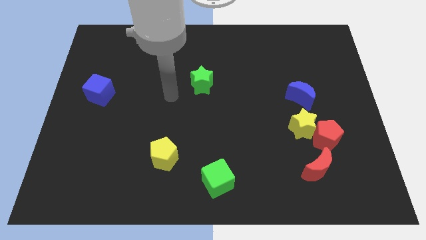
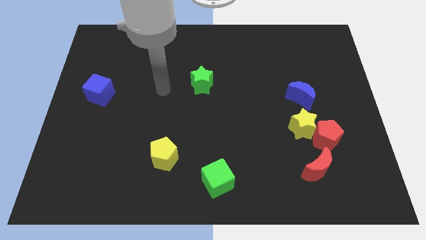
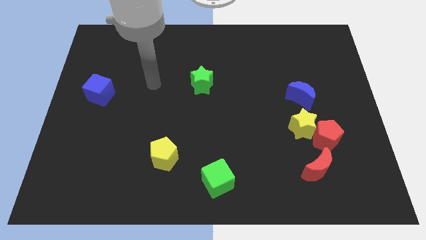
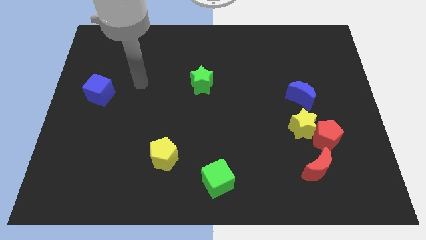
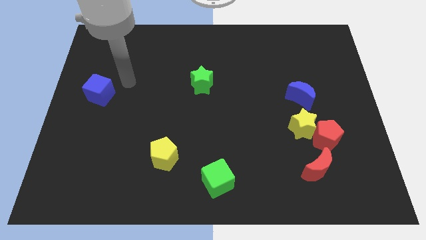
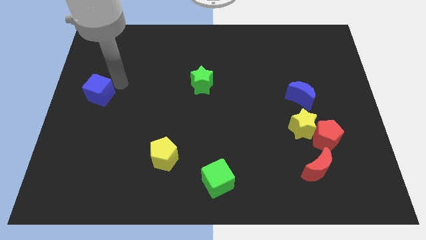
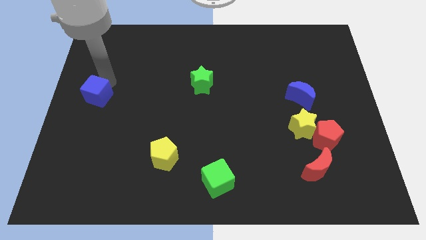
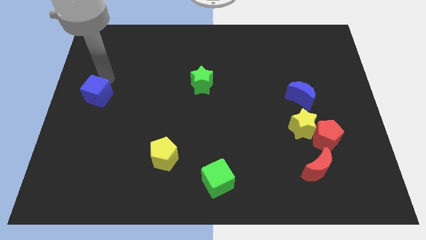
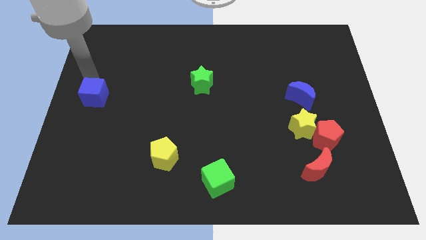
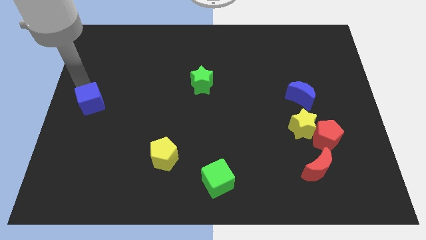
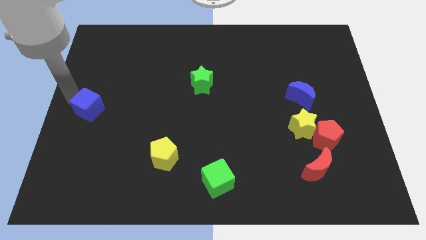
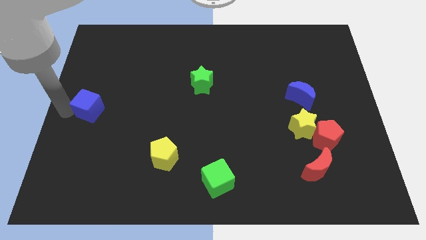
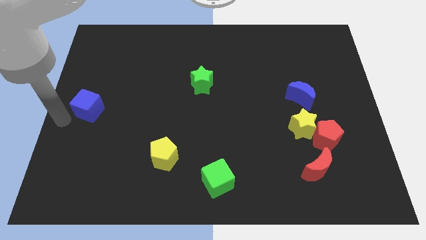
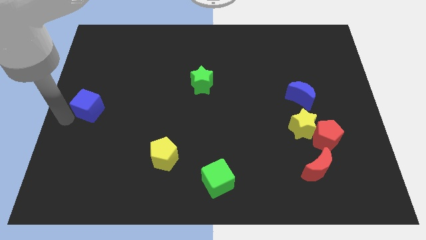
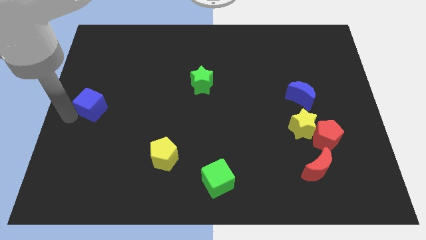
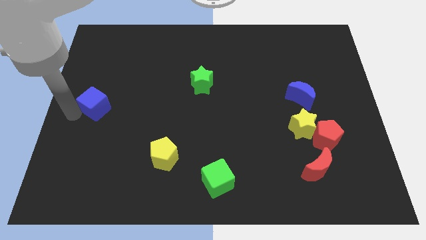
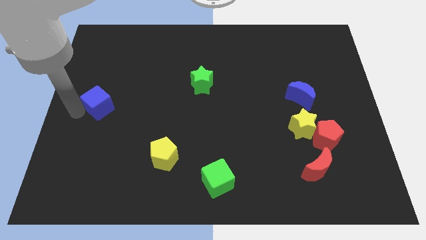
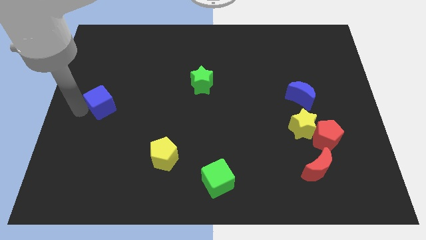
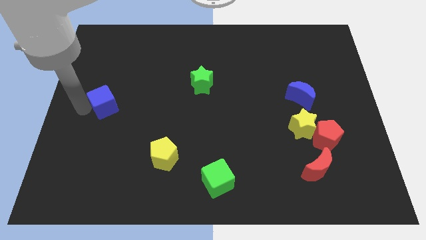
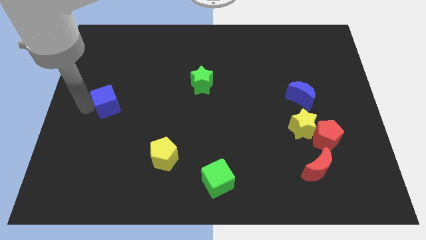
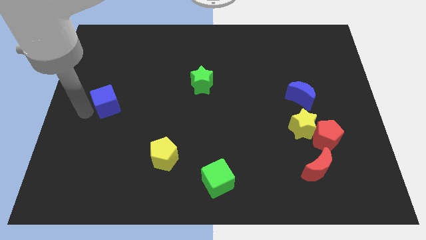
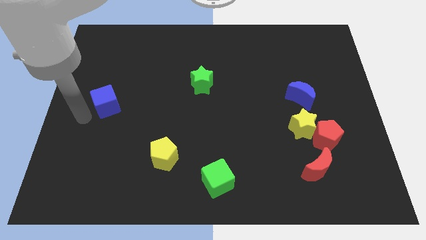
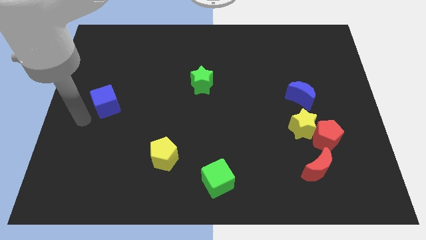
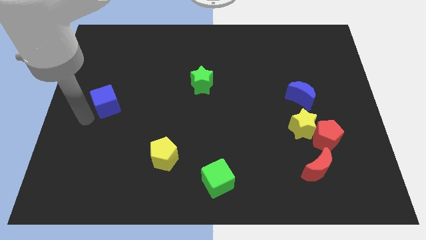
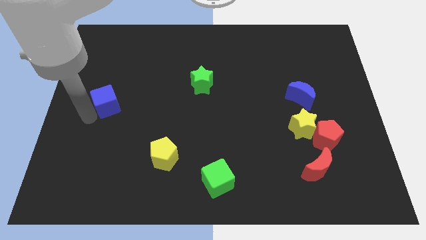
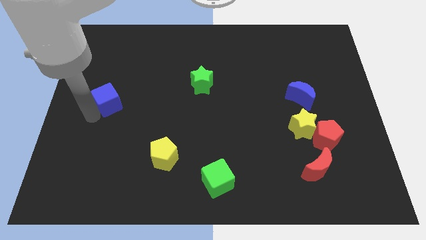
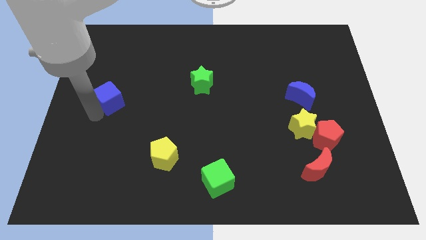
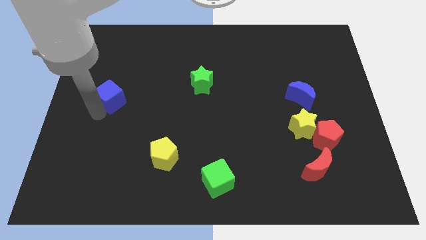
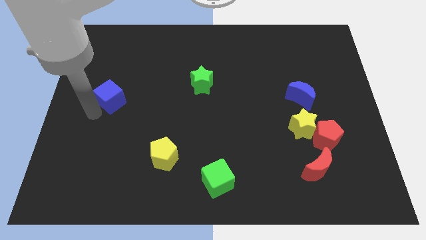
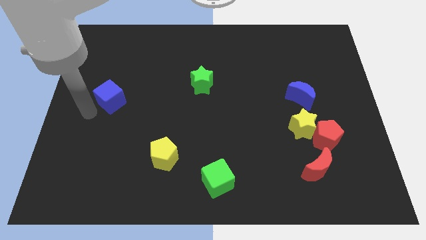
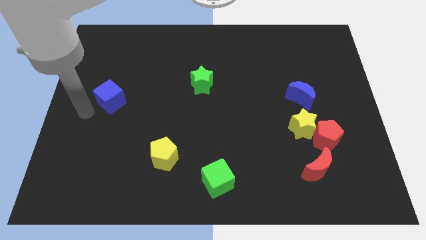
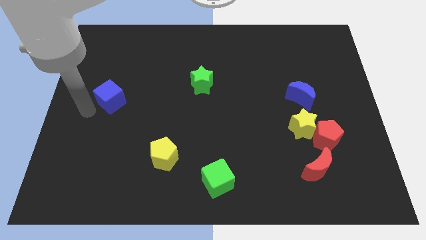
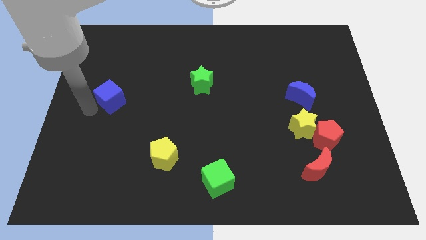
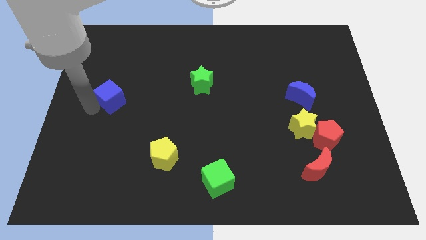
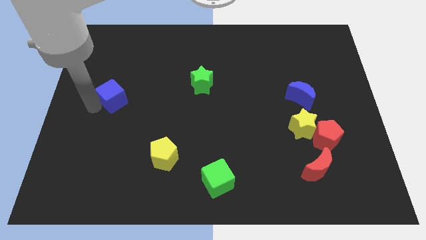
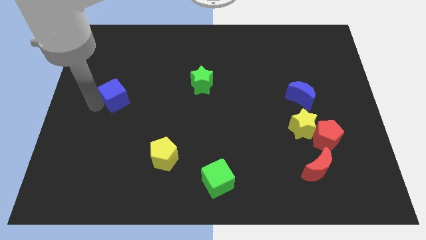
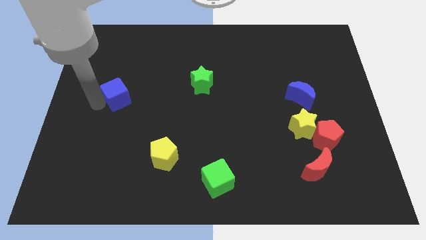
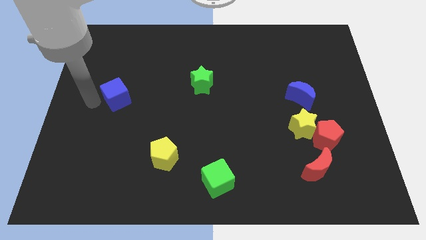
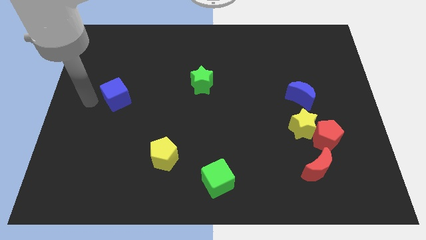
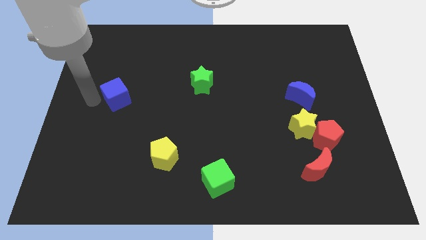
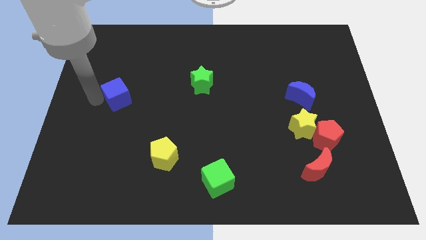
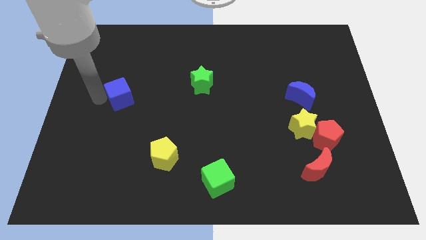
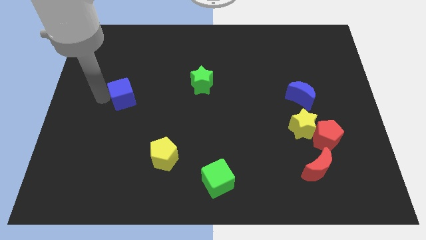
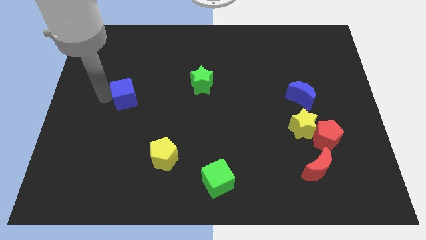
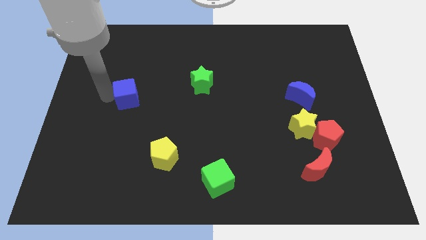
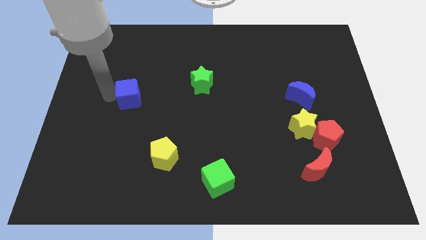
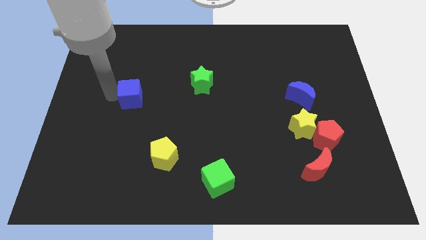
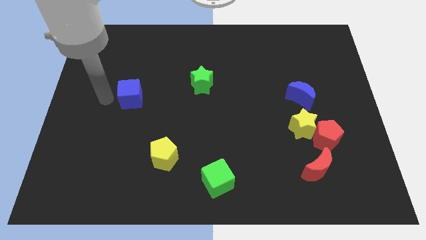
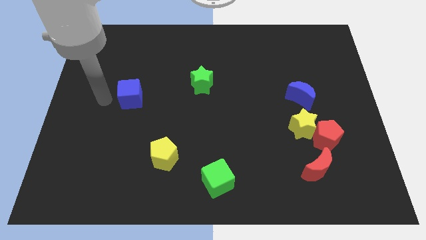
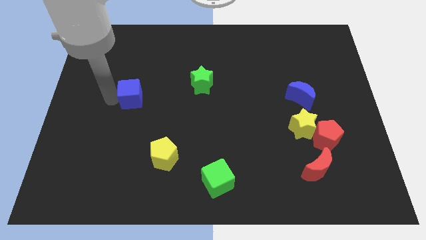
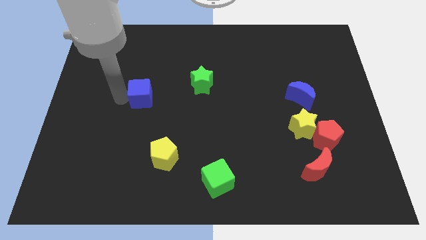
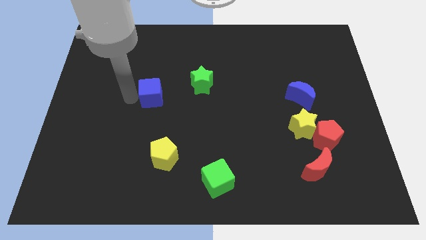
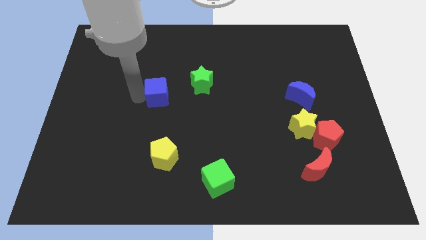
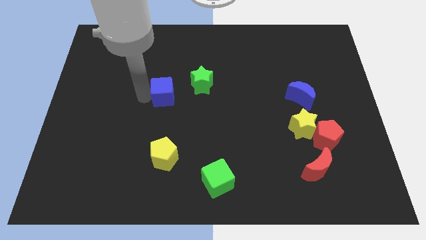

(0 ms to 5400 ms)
move the blue cube to the middle

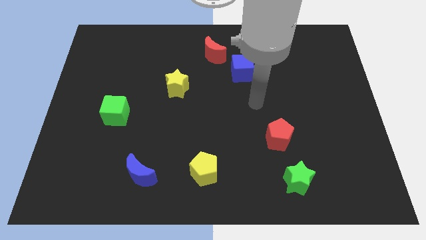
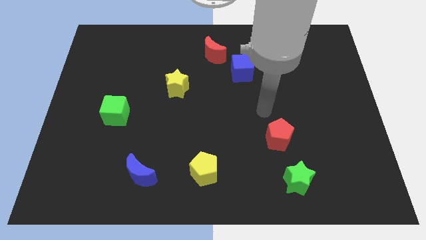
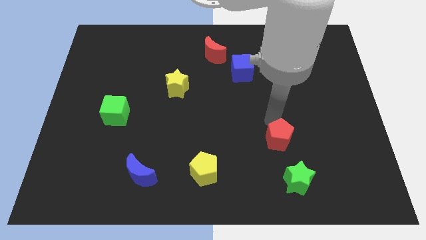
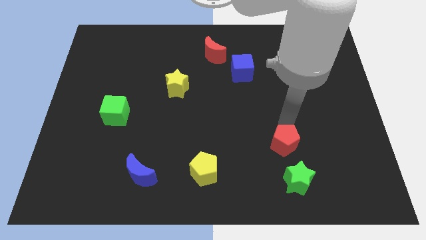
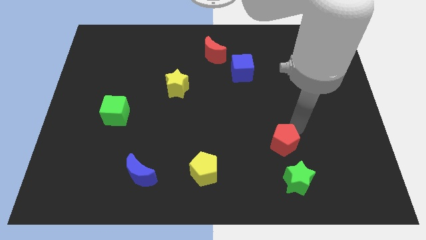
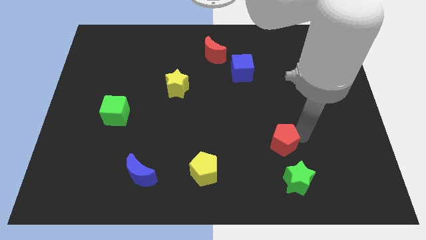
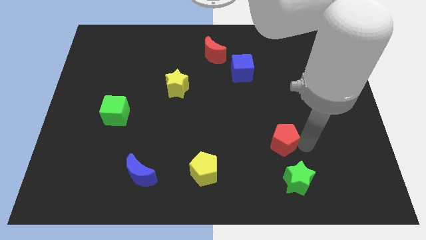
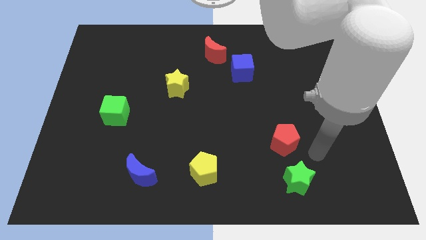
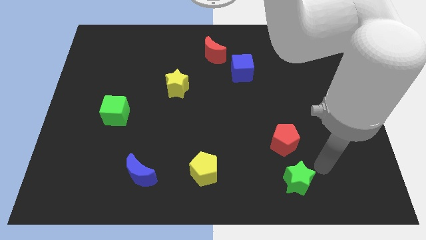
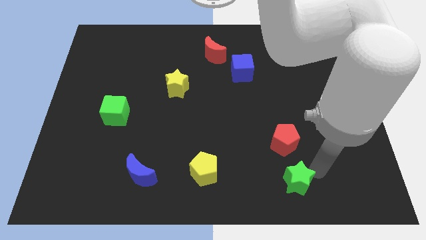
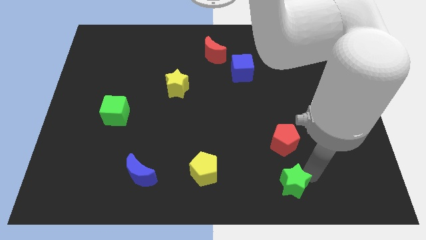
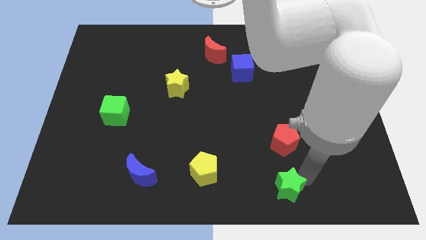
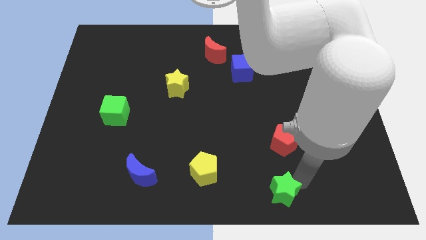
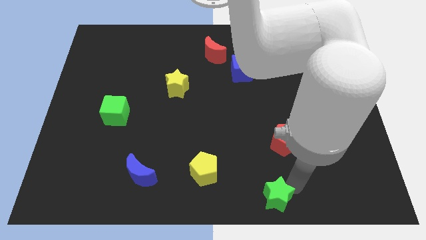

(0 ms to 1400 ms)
push the green star to the bottom side
